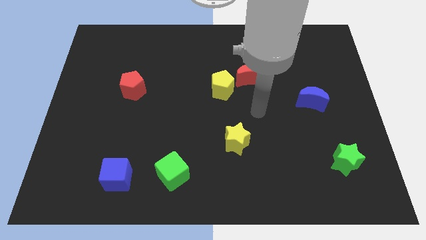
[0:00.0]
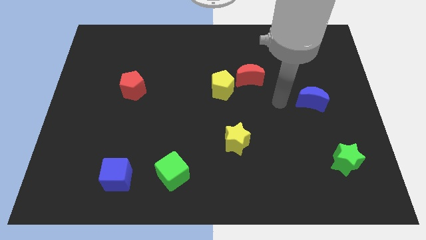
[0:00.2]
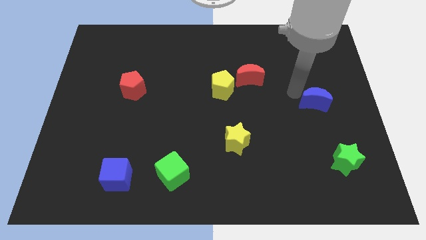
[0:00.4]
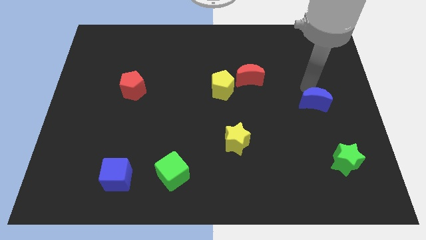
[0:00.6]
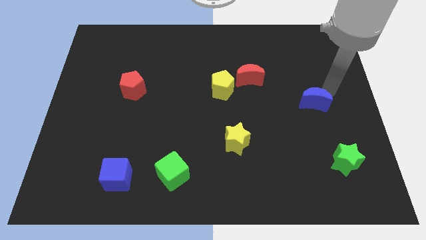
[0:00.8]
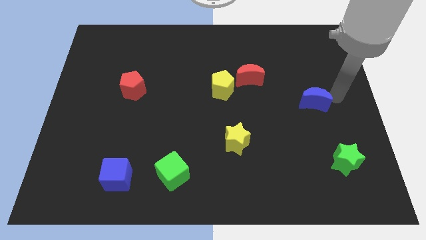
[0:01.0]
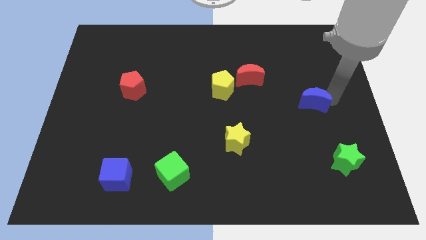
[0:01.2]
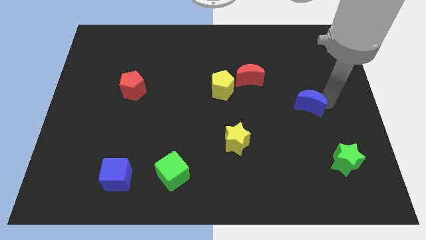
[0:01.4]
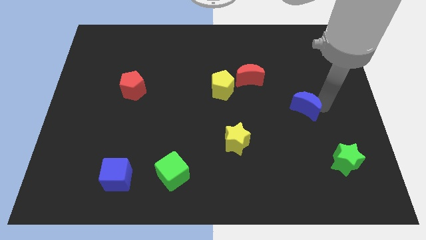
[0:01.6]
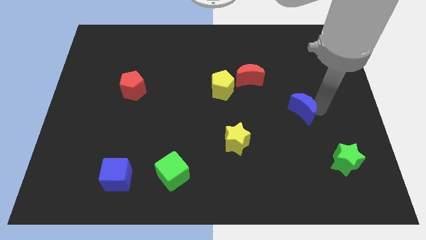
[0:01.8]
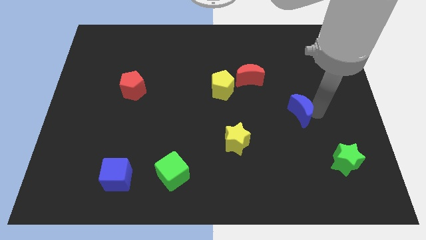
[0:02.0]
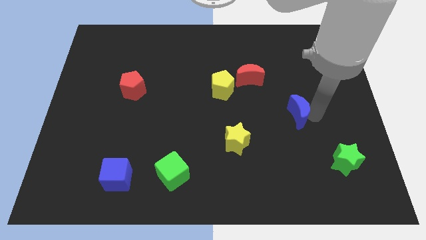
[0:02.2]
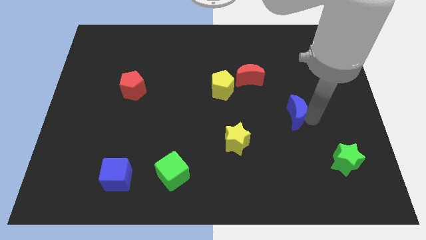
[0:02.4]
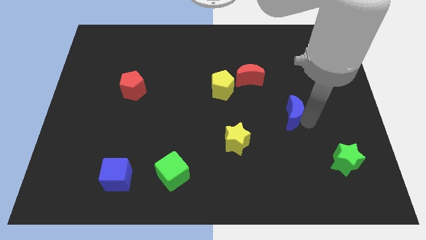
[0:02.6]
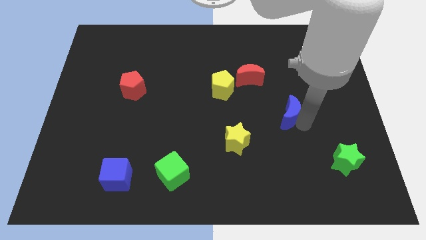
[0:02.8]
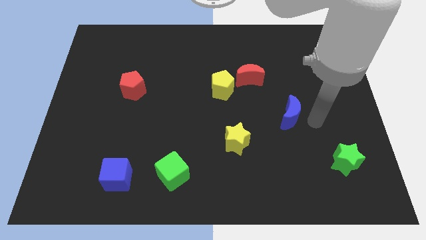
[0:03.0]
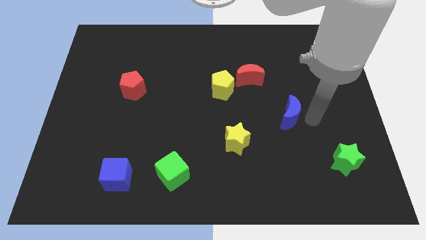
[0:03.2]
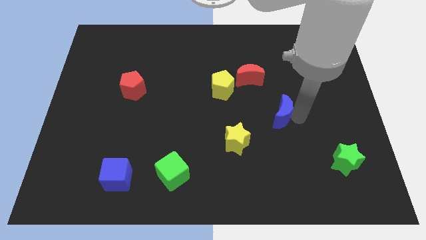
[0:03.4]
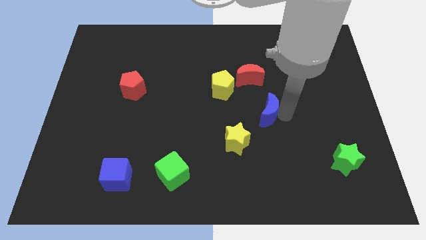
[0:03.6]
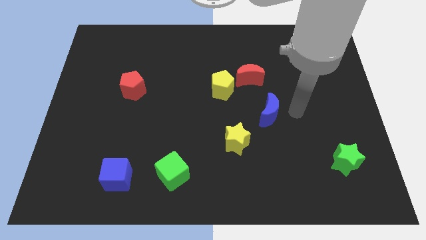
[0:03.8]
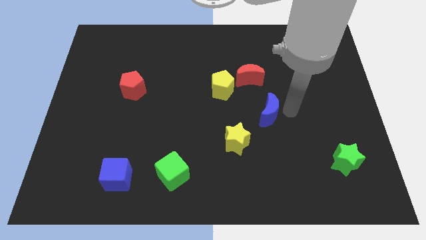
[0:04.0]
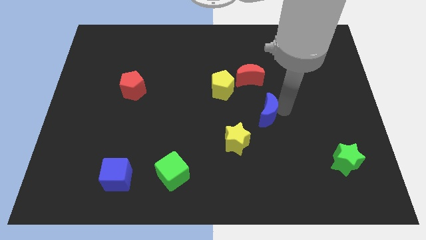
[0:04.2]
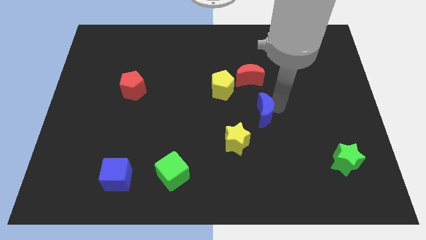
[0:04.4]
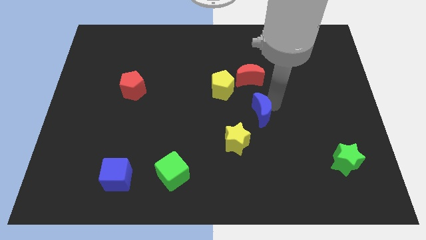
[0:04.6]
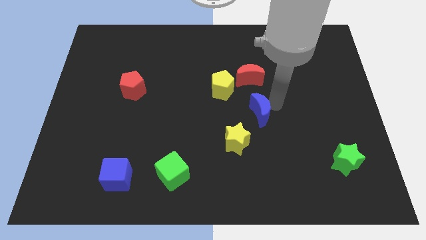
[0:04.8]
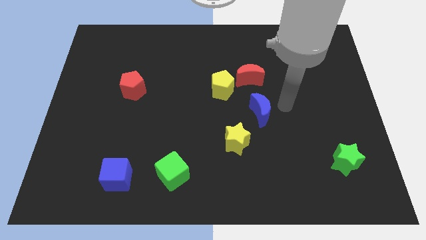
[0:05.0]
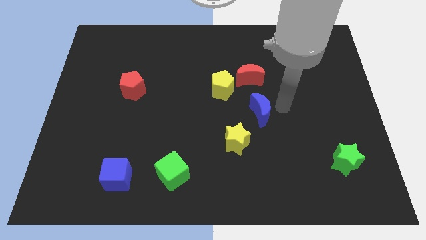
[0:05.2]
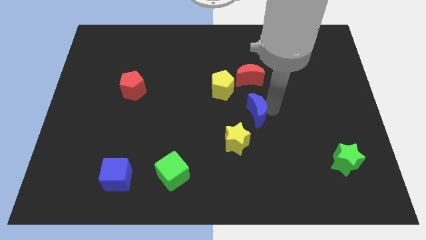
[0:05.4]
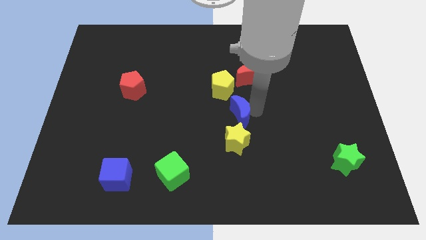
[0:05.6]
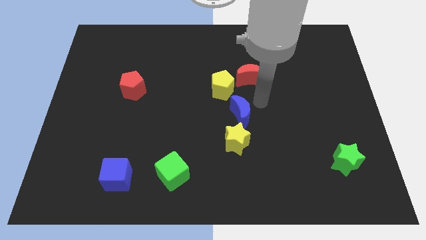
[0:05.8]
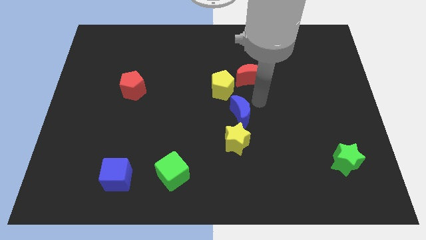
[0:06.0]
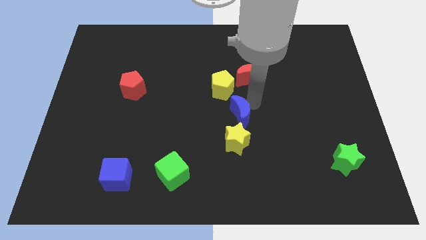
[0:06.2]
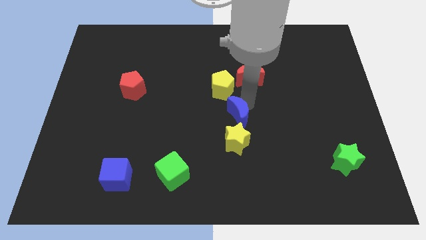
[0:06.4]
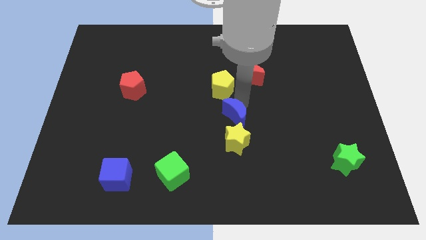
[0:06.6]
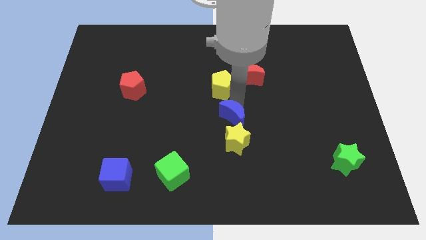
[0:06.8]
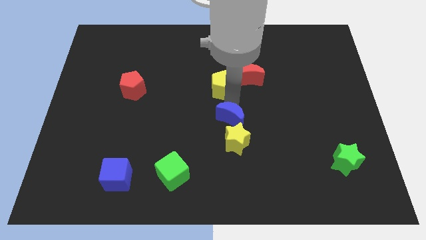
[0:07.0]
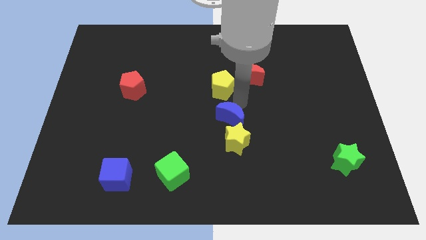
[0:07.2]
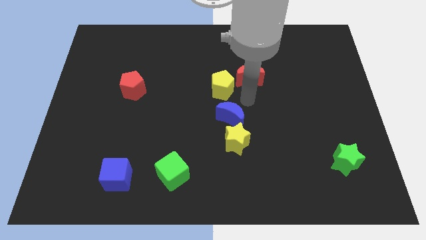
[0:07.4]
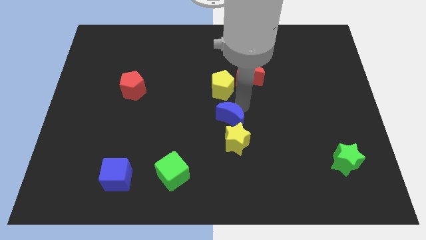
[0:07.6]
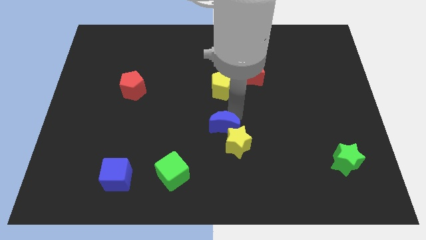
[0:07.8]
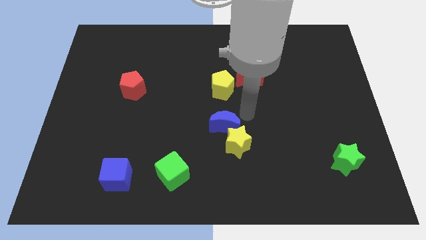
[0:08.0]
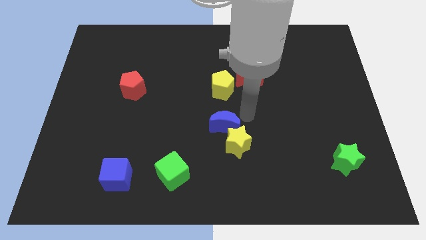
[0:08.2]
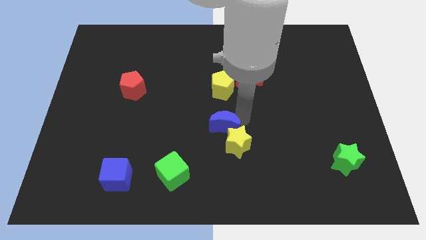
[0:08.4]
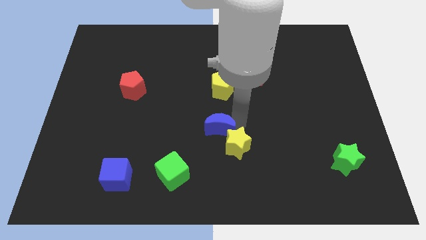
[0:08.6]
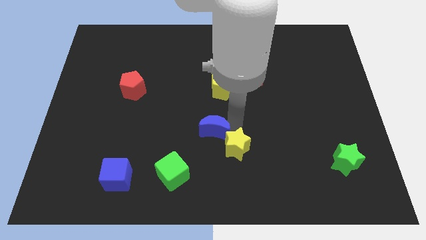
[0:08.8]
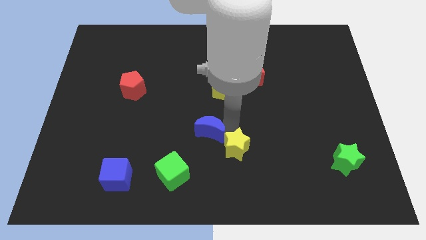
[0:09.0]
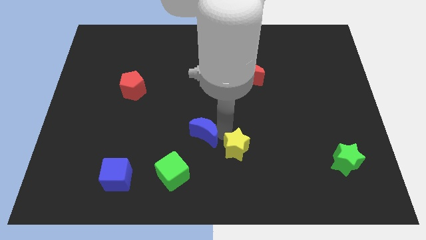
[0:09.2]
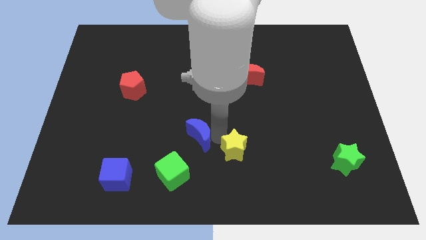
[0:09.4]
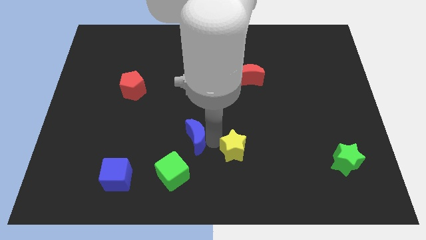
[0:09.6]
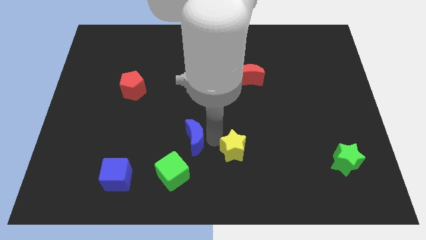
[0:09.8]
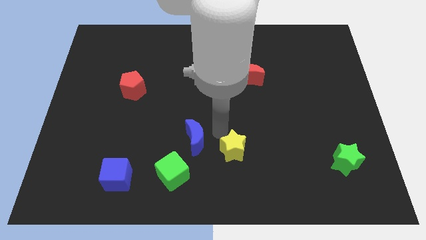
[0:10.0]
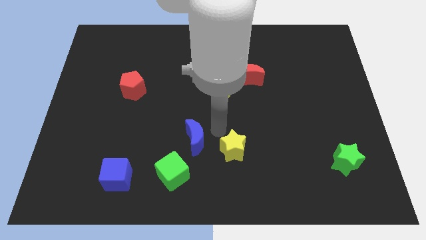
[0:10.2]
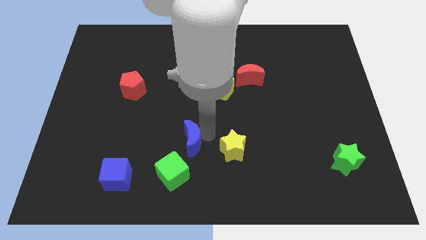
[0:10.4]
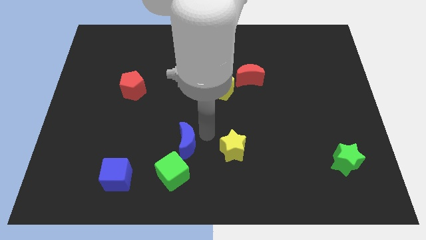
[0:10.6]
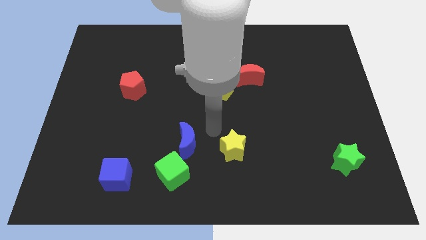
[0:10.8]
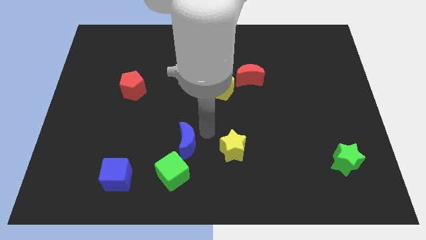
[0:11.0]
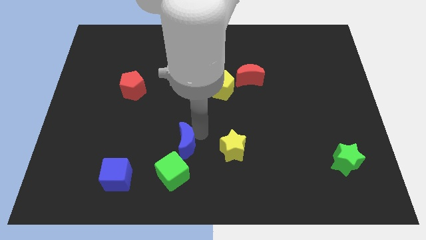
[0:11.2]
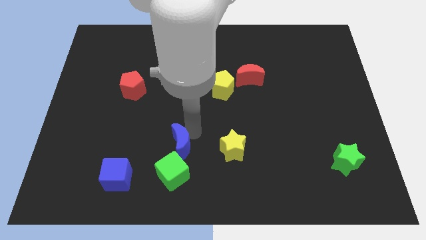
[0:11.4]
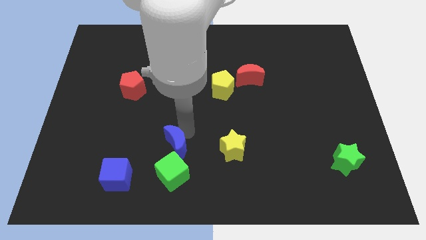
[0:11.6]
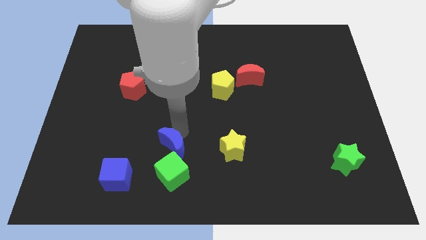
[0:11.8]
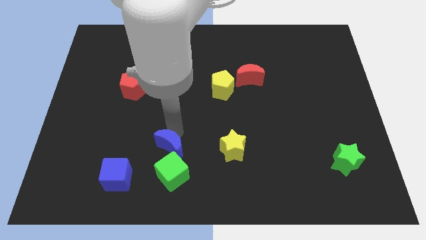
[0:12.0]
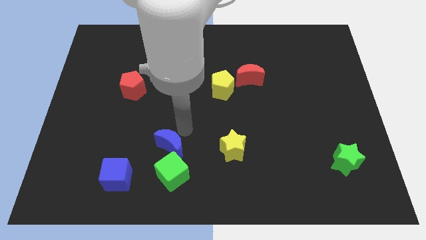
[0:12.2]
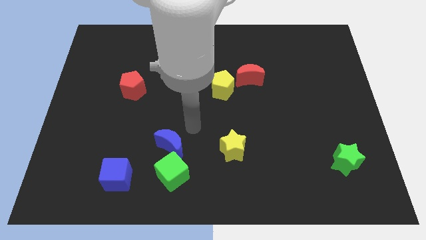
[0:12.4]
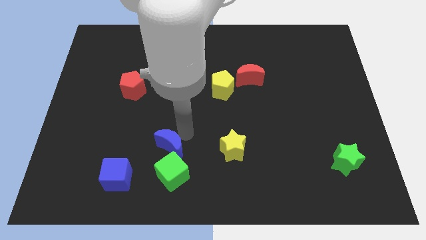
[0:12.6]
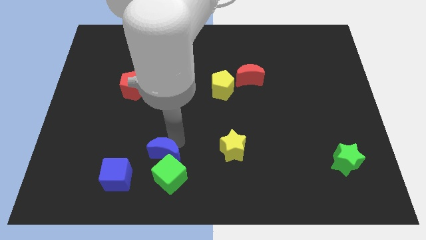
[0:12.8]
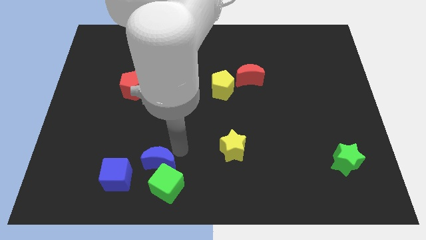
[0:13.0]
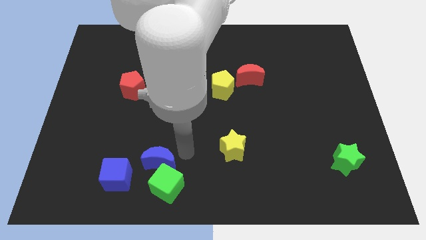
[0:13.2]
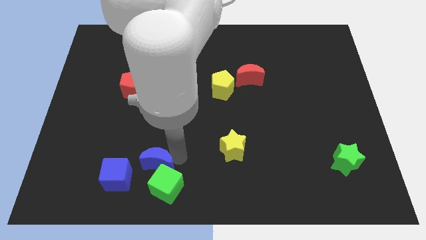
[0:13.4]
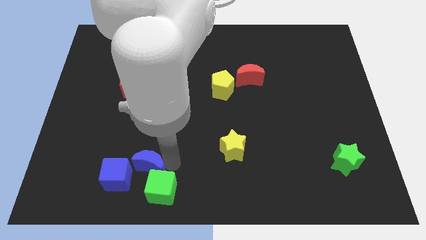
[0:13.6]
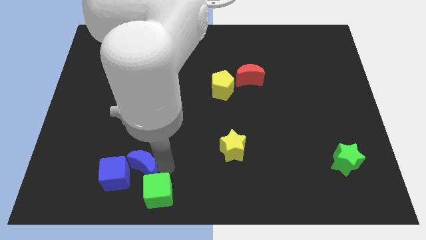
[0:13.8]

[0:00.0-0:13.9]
push the blue moon towards the blue cube
